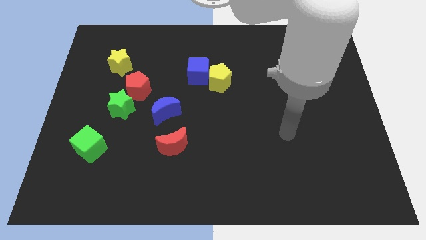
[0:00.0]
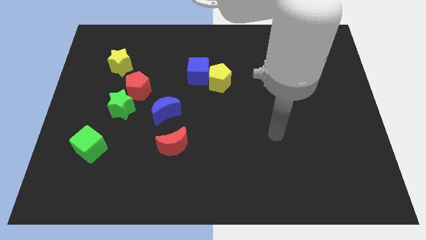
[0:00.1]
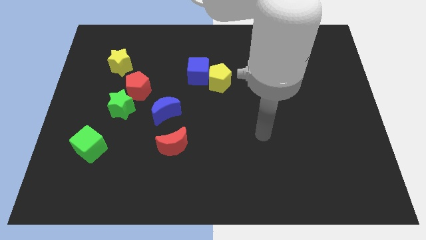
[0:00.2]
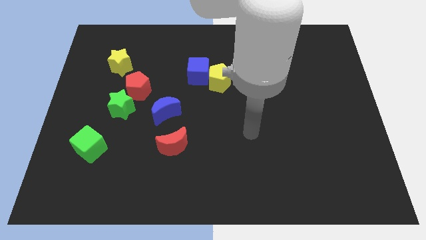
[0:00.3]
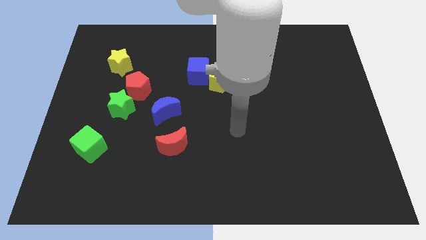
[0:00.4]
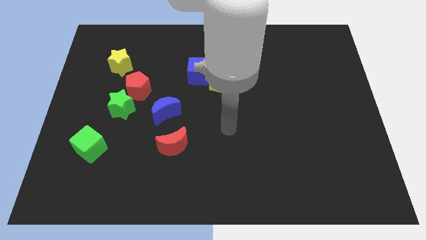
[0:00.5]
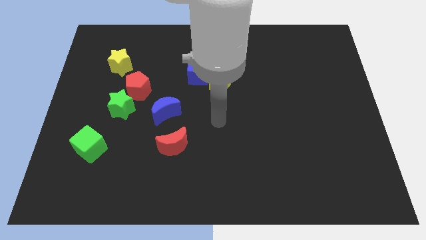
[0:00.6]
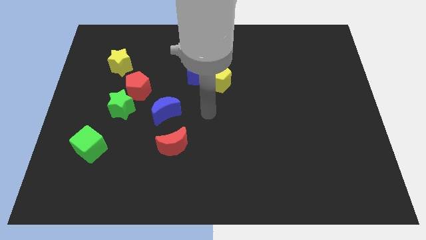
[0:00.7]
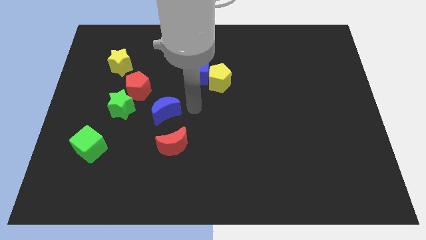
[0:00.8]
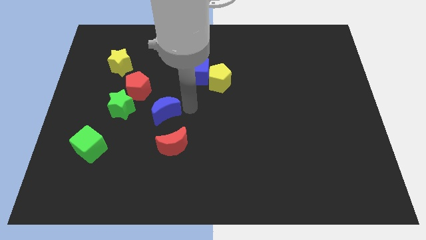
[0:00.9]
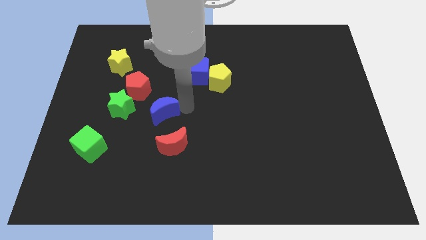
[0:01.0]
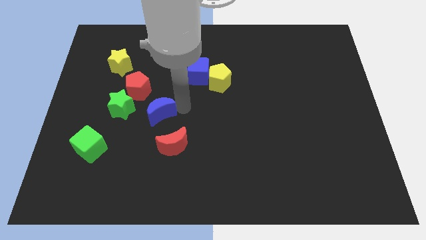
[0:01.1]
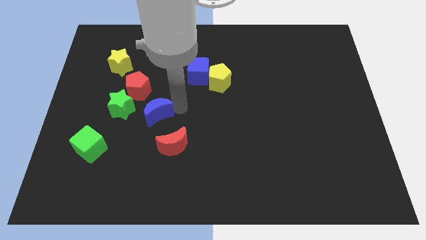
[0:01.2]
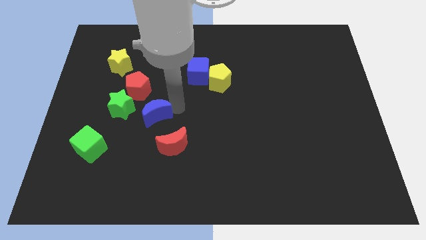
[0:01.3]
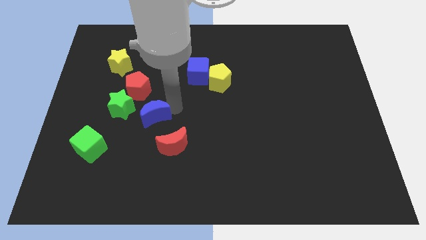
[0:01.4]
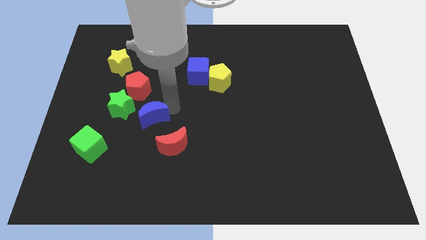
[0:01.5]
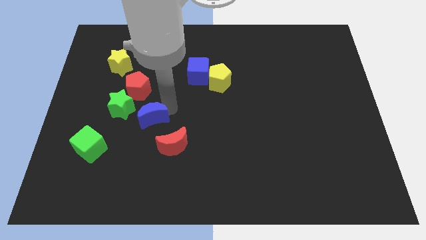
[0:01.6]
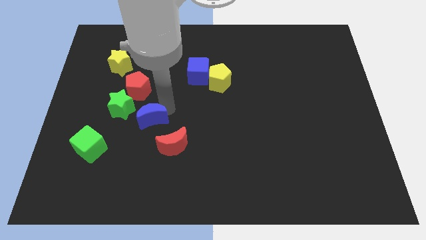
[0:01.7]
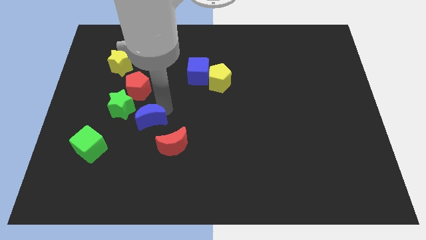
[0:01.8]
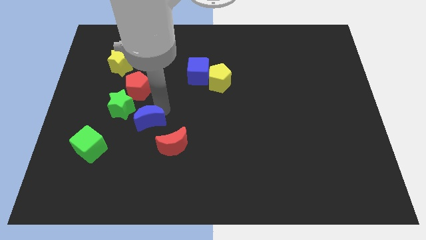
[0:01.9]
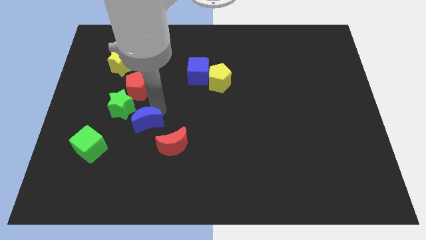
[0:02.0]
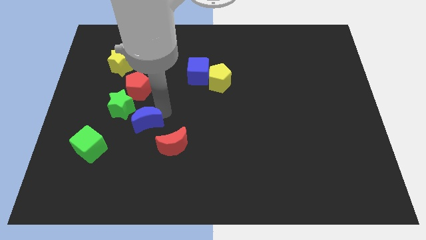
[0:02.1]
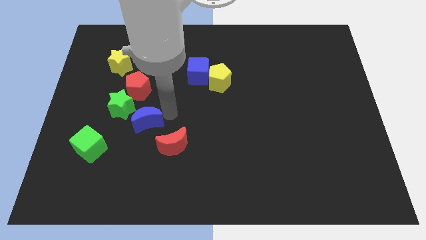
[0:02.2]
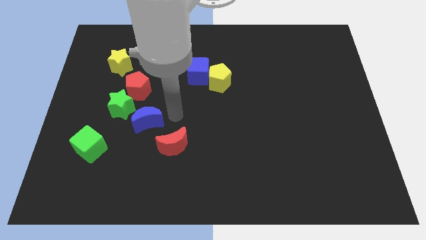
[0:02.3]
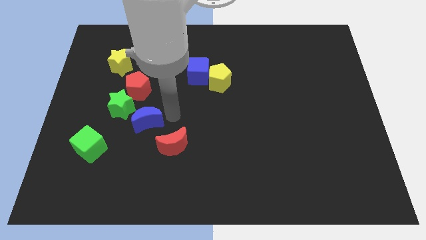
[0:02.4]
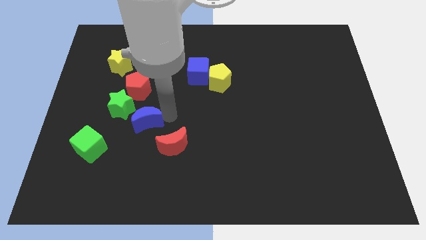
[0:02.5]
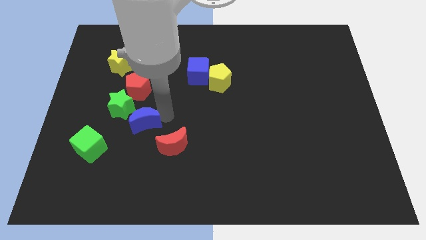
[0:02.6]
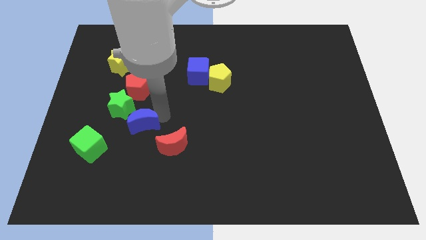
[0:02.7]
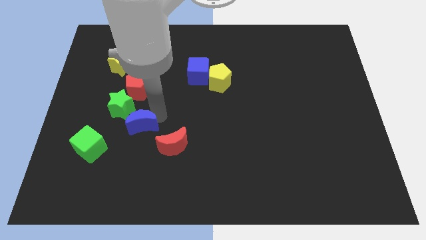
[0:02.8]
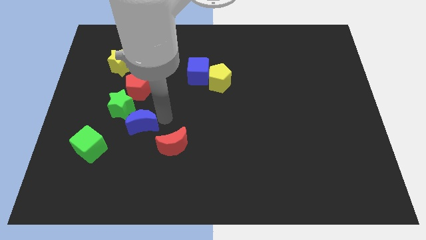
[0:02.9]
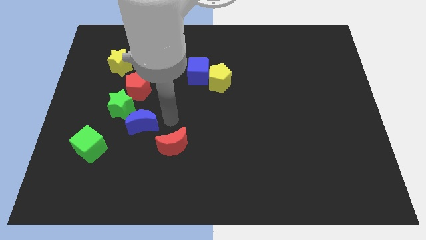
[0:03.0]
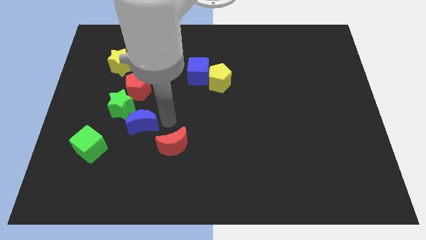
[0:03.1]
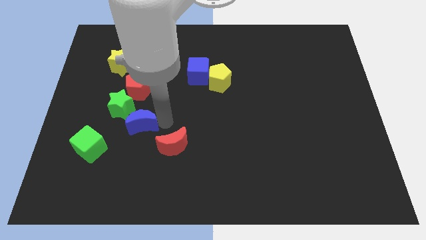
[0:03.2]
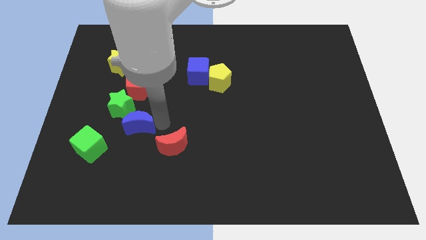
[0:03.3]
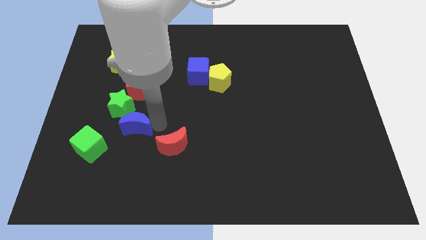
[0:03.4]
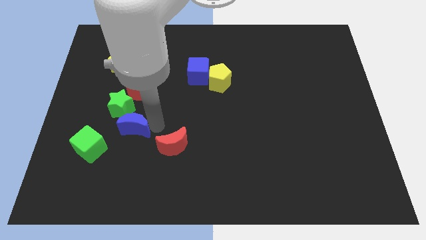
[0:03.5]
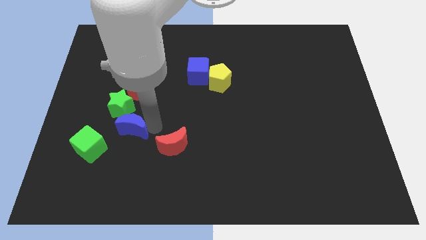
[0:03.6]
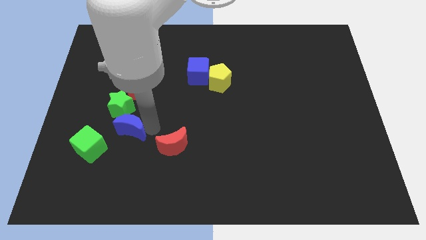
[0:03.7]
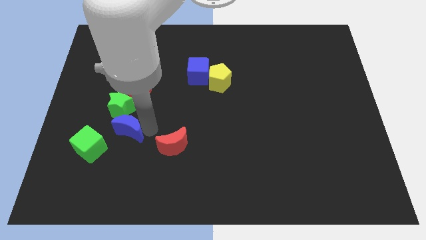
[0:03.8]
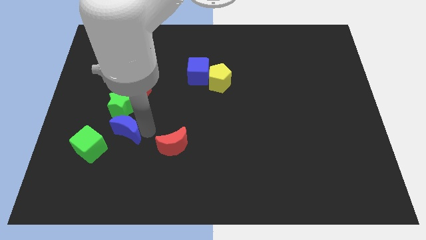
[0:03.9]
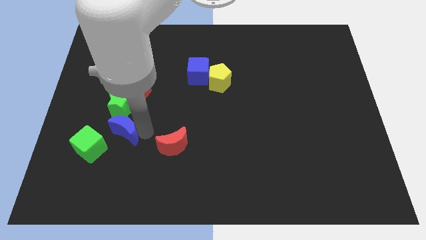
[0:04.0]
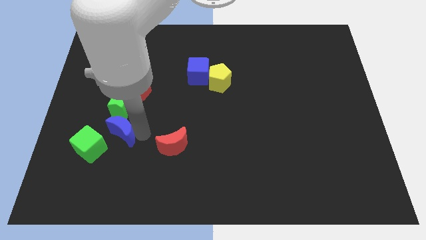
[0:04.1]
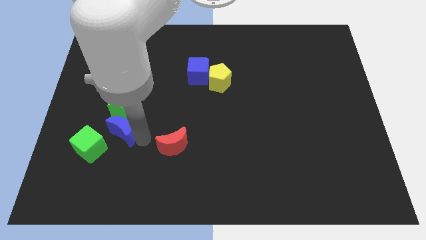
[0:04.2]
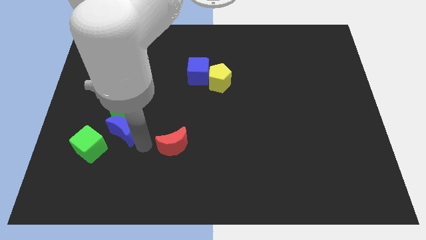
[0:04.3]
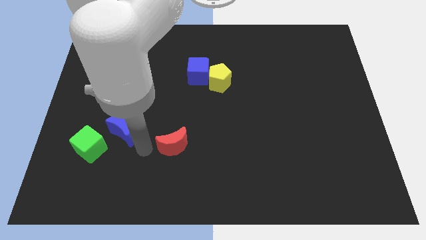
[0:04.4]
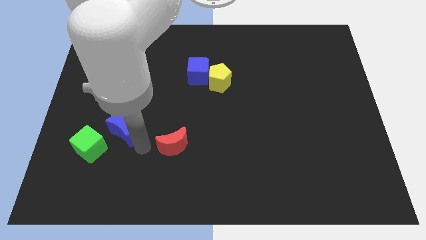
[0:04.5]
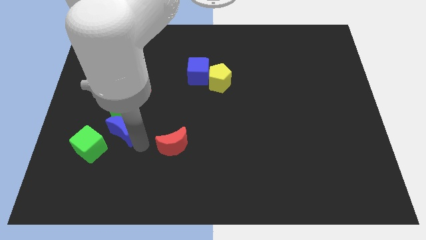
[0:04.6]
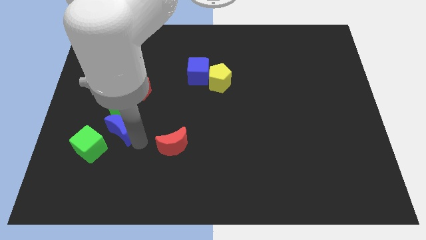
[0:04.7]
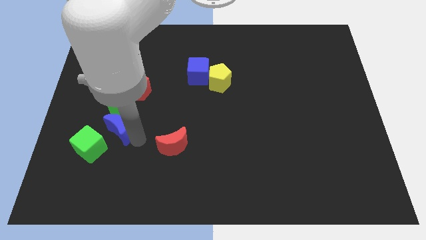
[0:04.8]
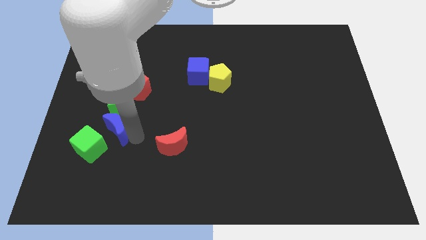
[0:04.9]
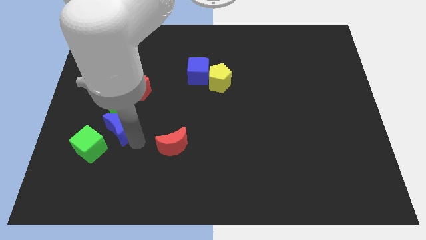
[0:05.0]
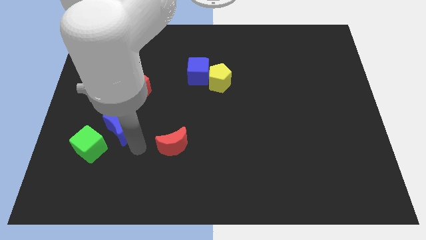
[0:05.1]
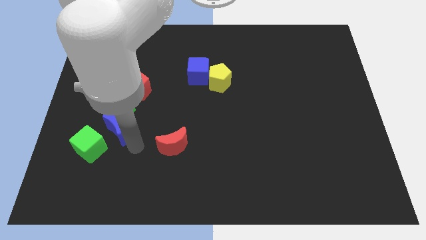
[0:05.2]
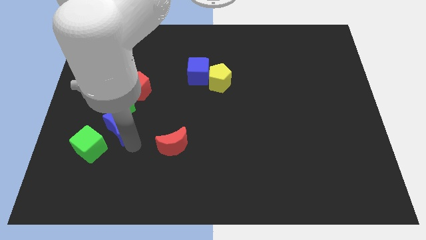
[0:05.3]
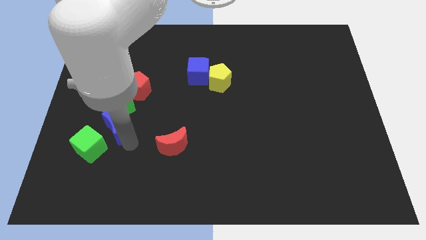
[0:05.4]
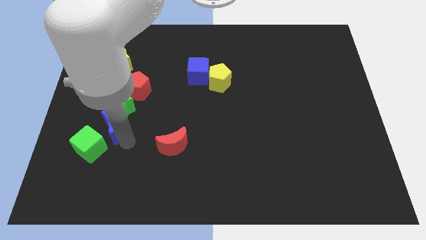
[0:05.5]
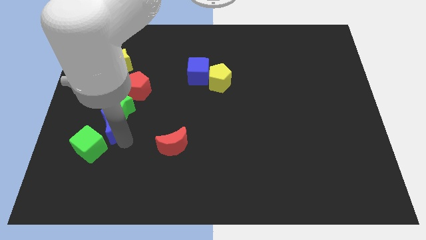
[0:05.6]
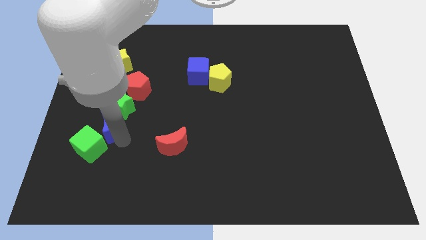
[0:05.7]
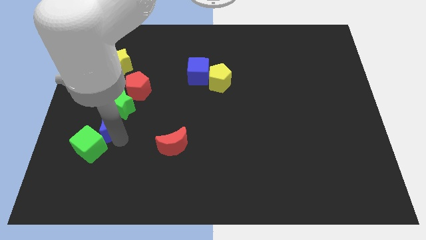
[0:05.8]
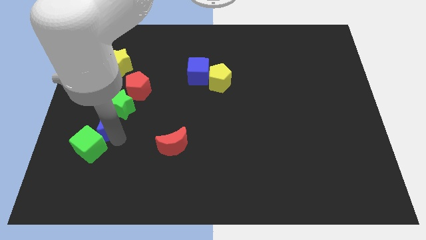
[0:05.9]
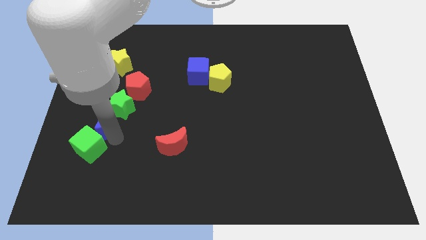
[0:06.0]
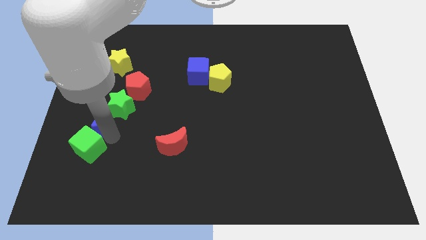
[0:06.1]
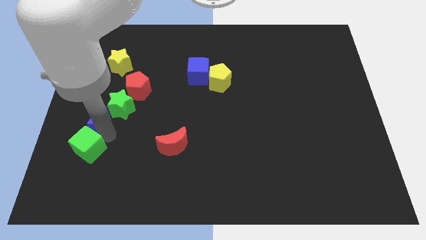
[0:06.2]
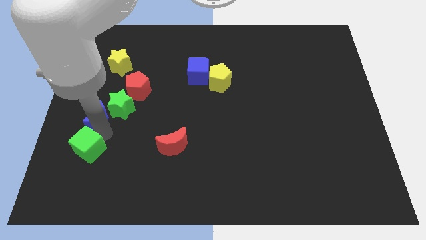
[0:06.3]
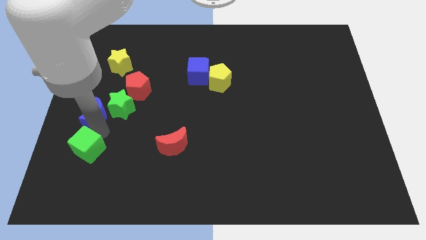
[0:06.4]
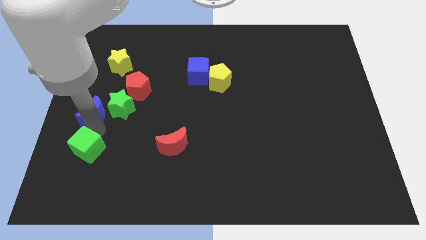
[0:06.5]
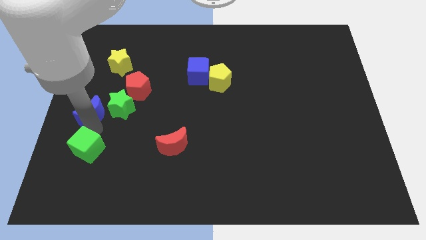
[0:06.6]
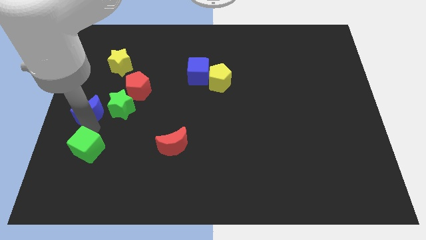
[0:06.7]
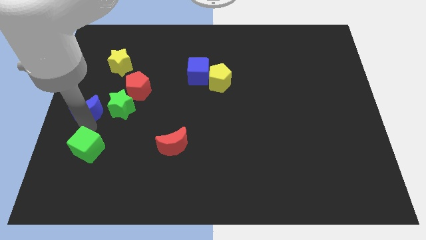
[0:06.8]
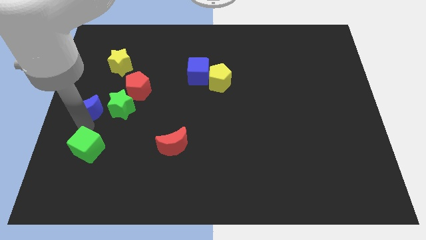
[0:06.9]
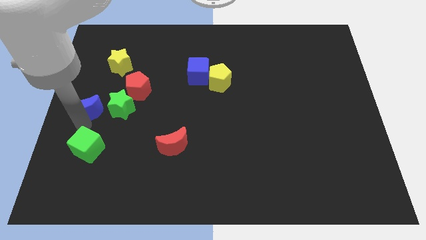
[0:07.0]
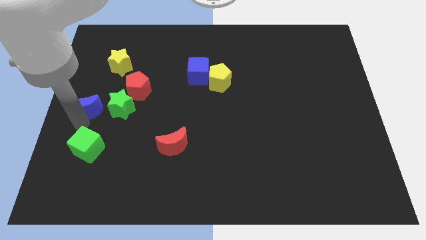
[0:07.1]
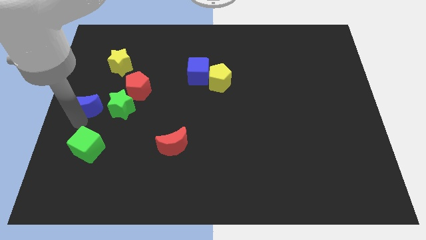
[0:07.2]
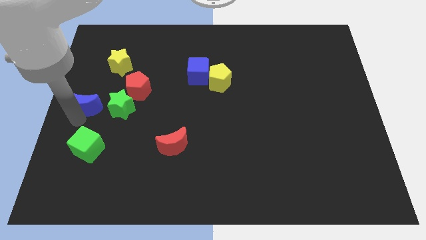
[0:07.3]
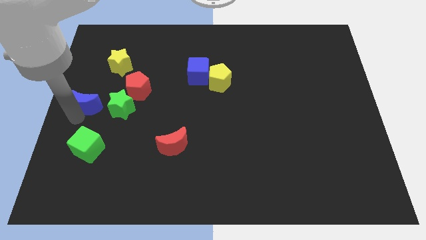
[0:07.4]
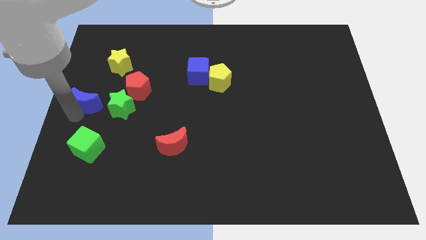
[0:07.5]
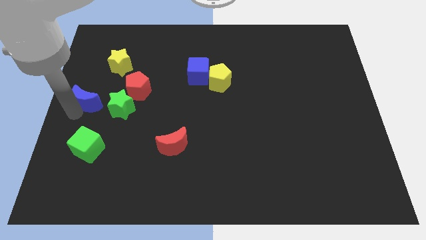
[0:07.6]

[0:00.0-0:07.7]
put the blue moon diagonally up and to the left of the green star
